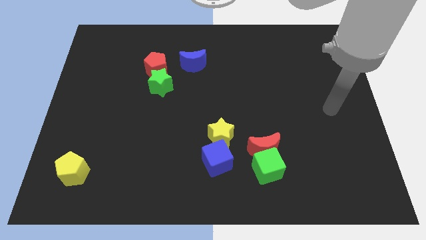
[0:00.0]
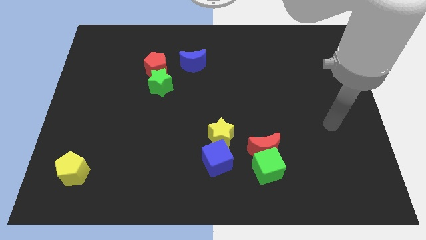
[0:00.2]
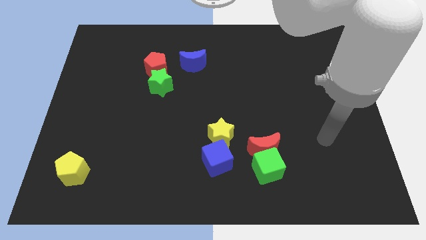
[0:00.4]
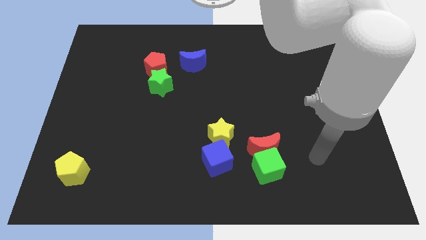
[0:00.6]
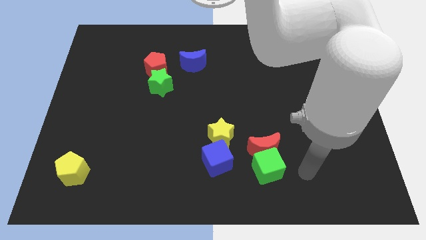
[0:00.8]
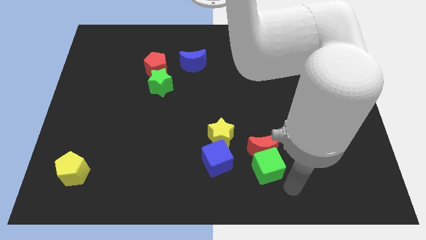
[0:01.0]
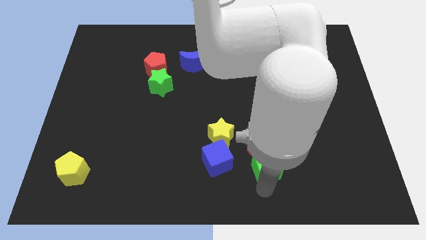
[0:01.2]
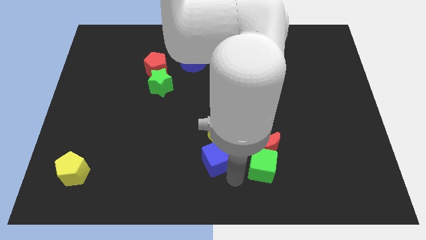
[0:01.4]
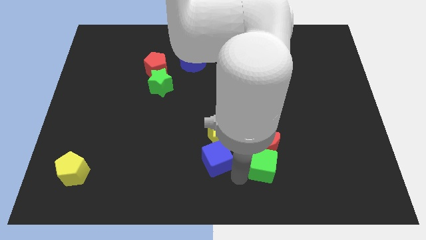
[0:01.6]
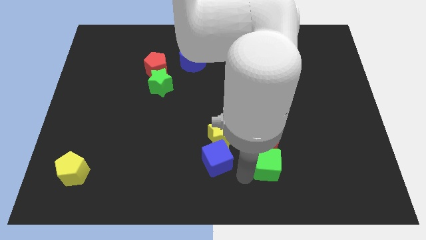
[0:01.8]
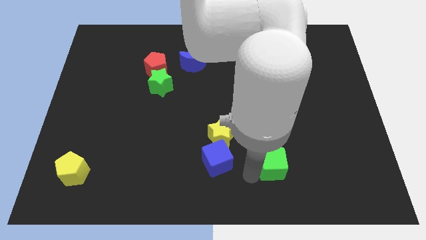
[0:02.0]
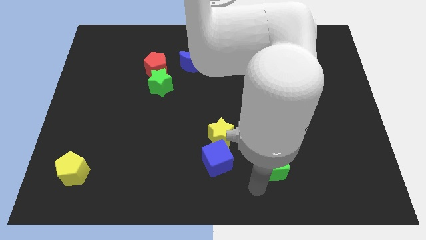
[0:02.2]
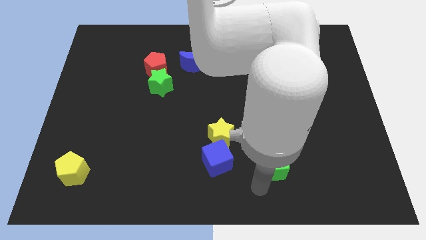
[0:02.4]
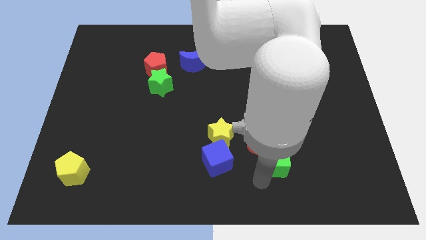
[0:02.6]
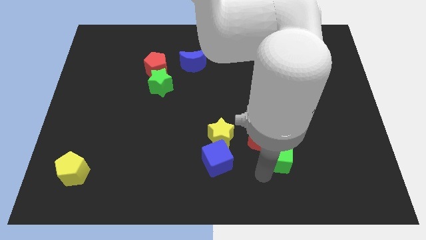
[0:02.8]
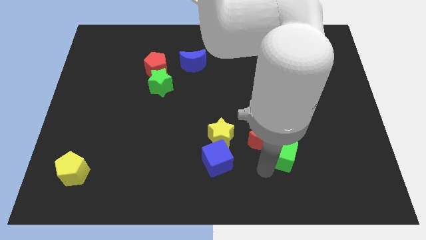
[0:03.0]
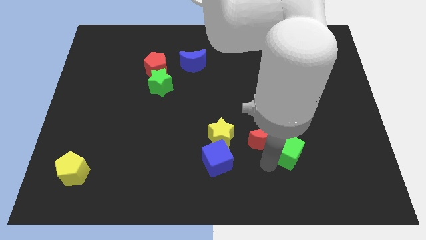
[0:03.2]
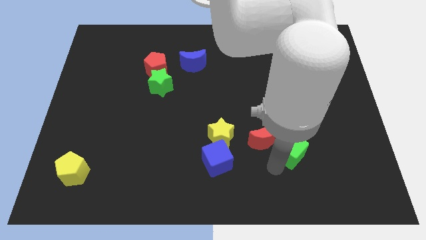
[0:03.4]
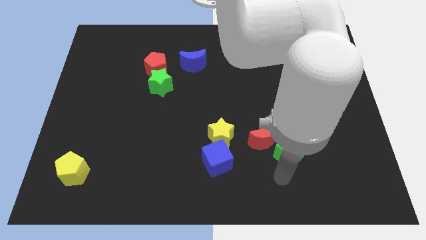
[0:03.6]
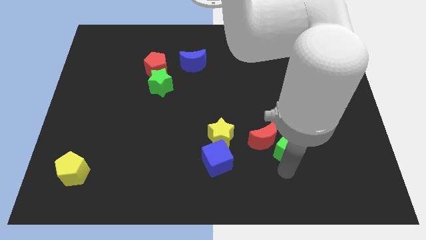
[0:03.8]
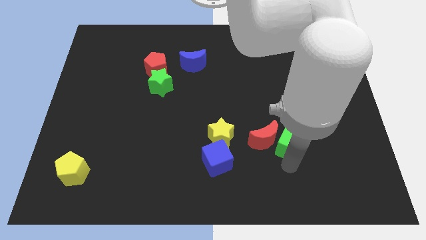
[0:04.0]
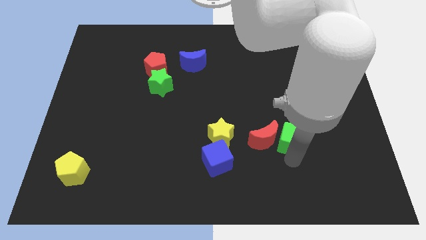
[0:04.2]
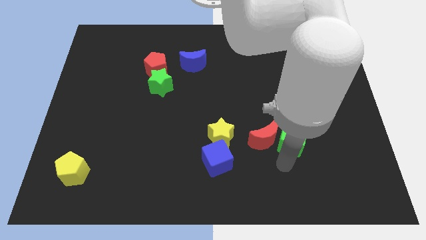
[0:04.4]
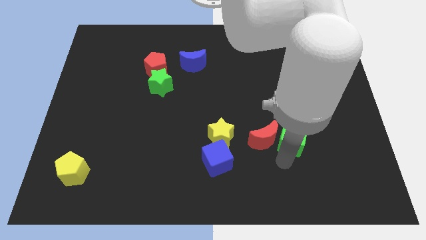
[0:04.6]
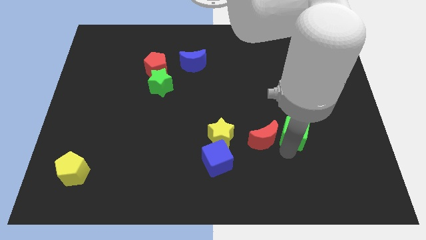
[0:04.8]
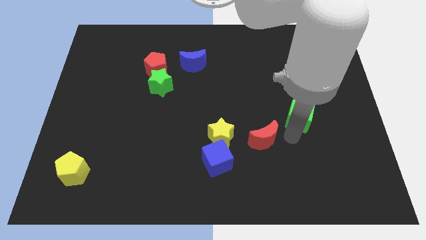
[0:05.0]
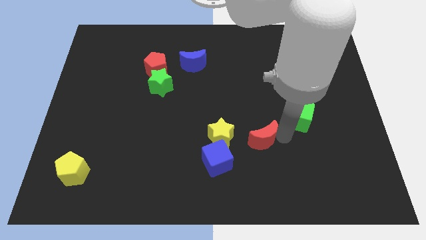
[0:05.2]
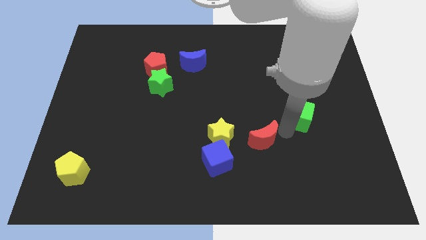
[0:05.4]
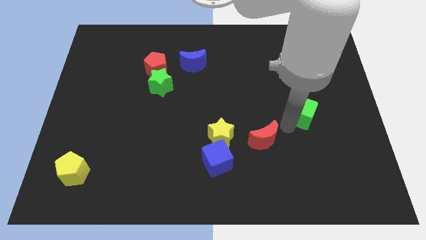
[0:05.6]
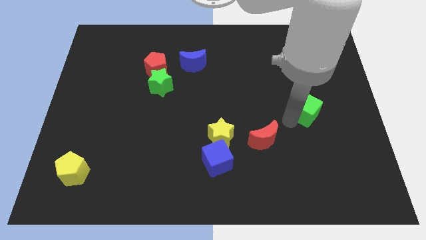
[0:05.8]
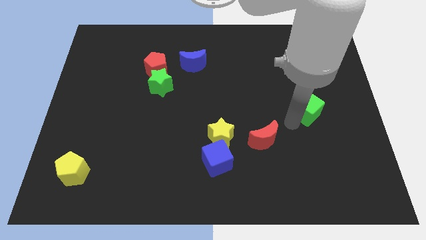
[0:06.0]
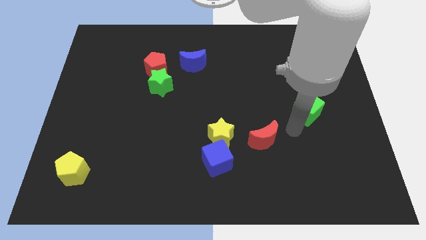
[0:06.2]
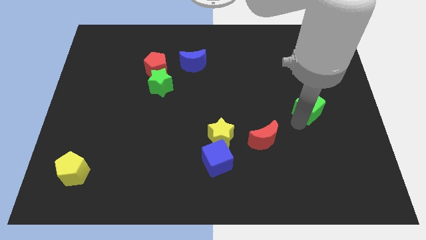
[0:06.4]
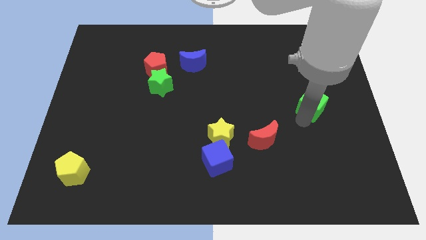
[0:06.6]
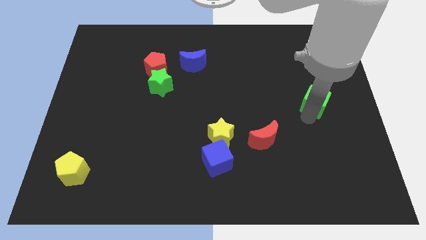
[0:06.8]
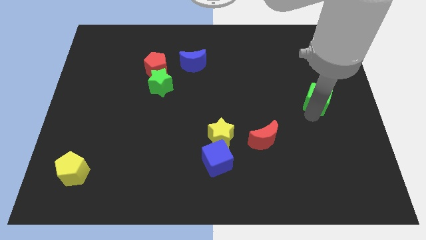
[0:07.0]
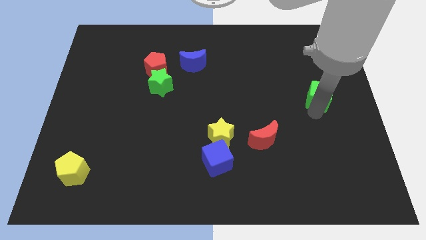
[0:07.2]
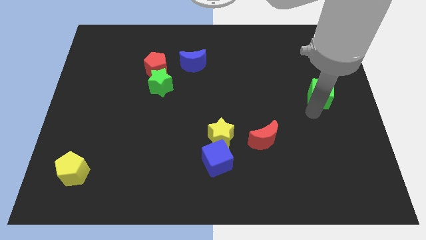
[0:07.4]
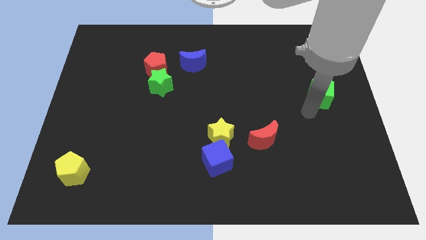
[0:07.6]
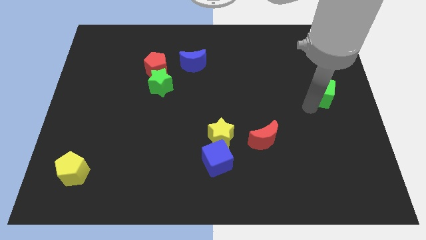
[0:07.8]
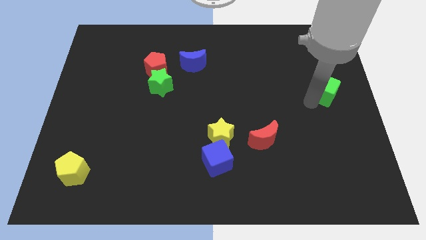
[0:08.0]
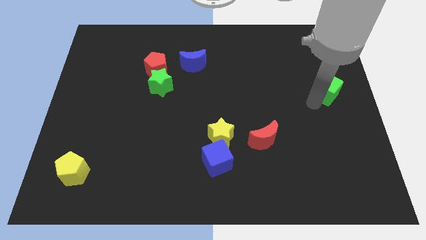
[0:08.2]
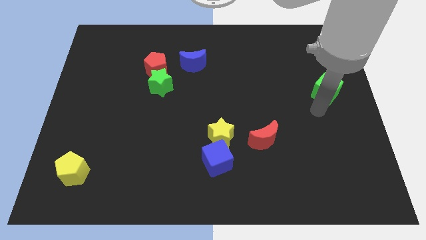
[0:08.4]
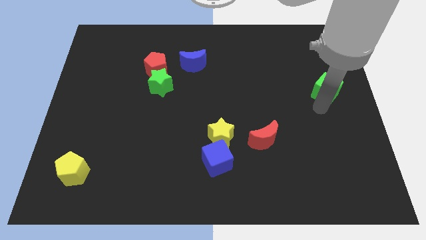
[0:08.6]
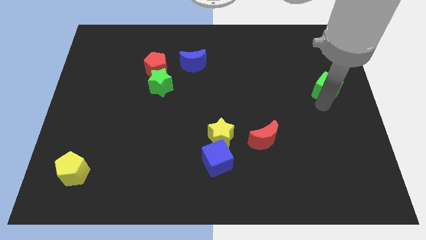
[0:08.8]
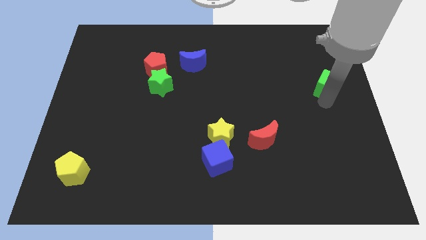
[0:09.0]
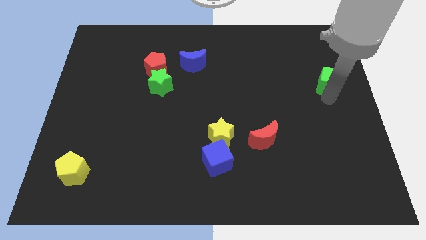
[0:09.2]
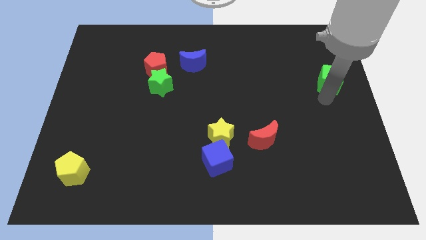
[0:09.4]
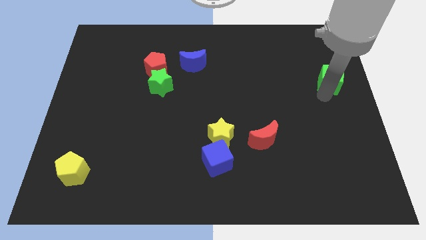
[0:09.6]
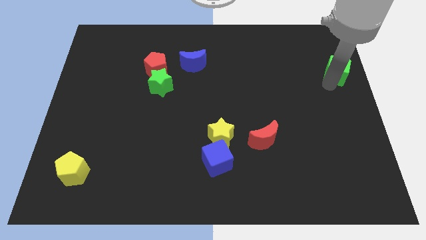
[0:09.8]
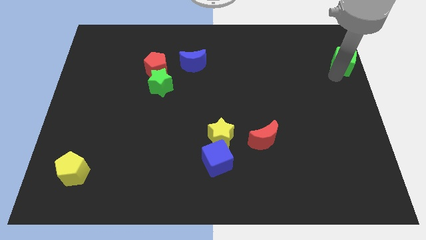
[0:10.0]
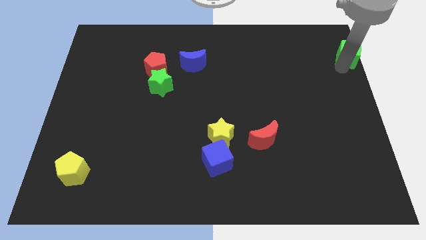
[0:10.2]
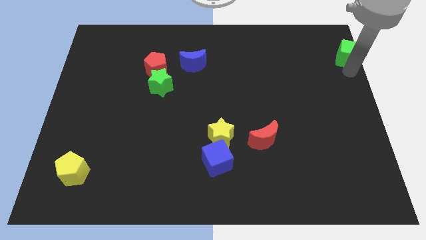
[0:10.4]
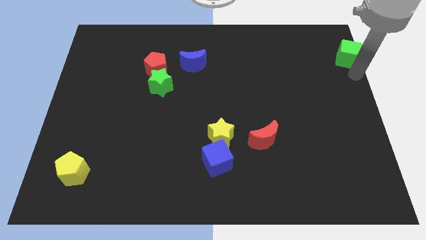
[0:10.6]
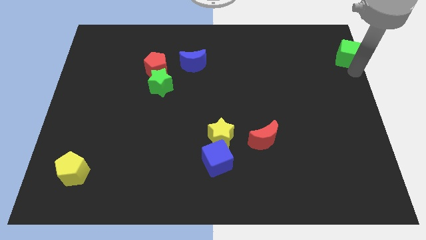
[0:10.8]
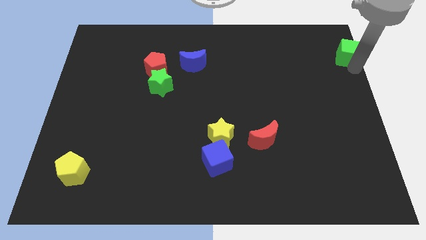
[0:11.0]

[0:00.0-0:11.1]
push the green cube to the top right

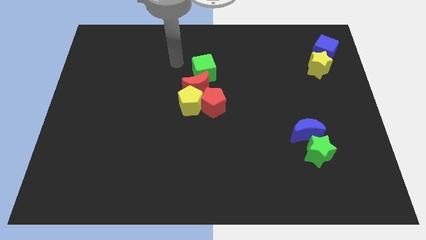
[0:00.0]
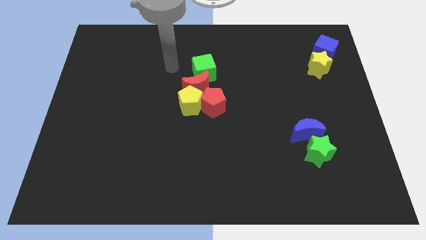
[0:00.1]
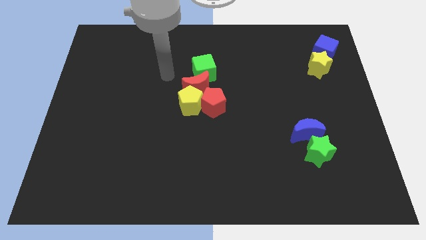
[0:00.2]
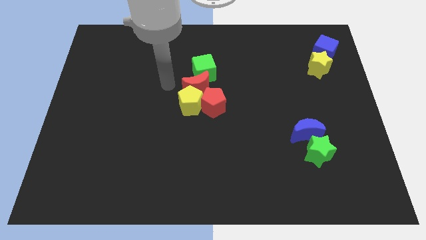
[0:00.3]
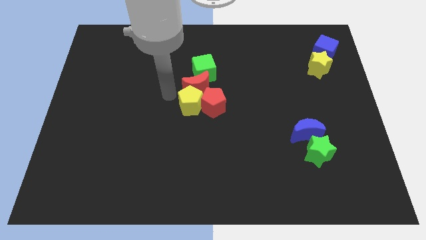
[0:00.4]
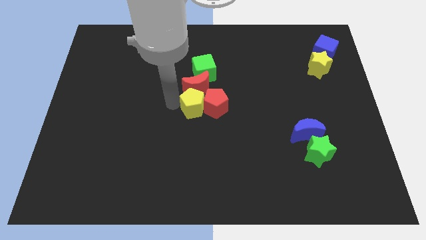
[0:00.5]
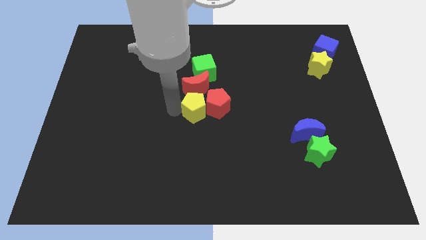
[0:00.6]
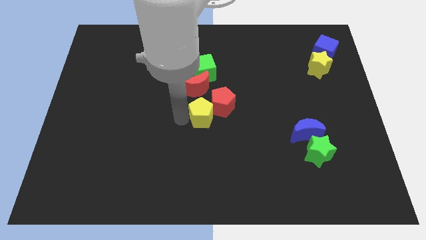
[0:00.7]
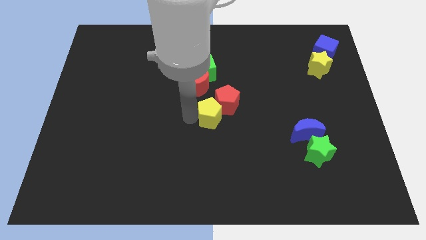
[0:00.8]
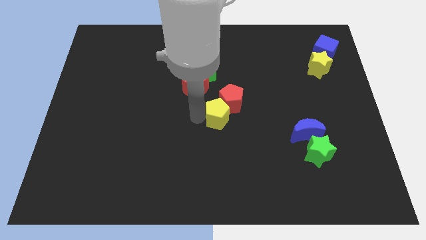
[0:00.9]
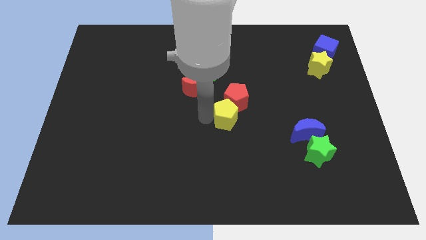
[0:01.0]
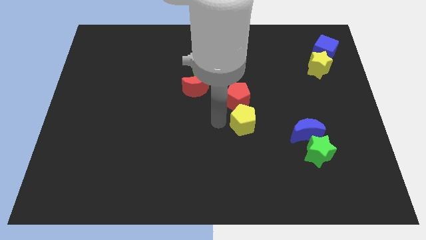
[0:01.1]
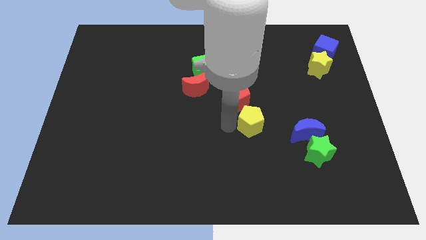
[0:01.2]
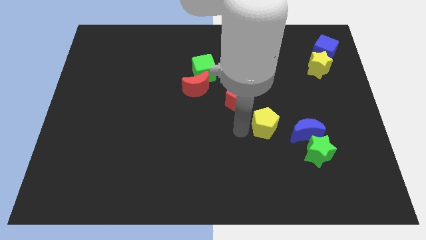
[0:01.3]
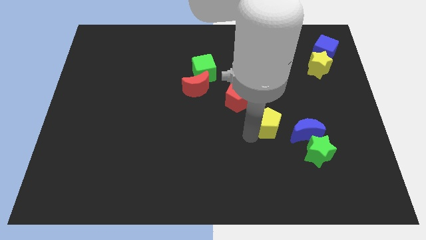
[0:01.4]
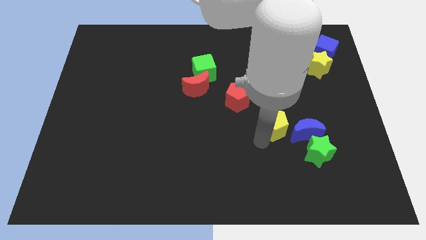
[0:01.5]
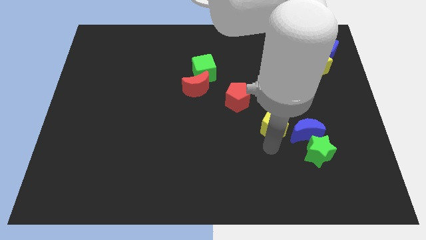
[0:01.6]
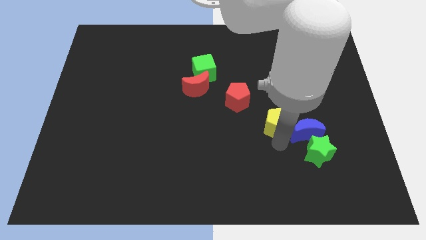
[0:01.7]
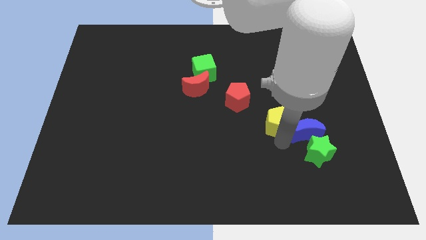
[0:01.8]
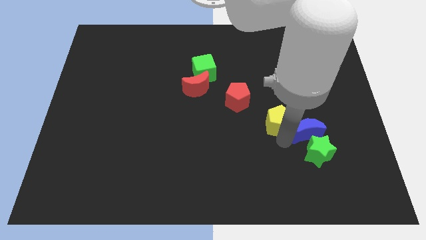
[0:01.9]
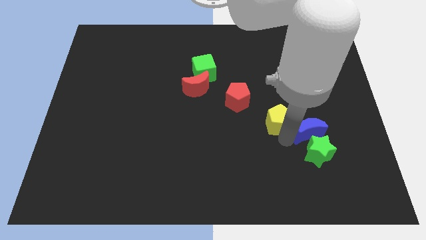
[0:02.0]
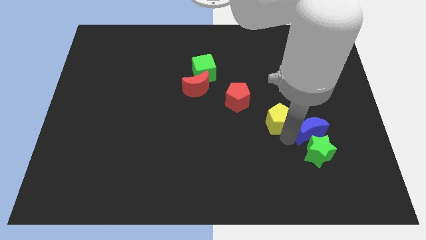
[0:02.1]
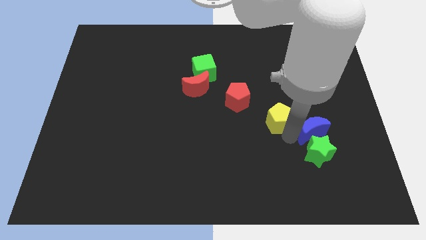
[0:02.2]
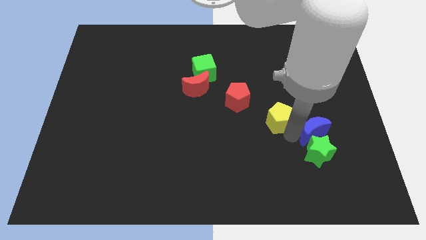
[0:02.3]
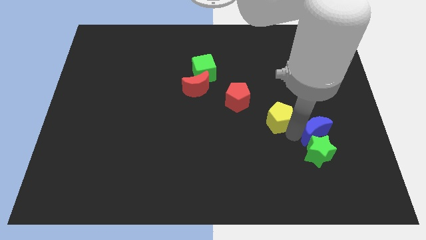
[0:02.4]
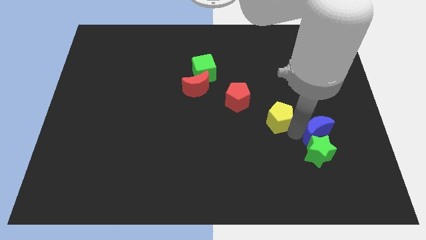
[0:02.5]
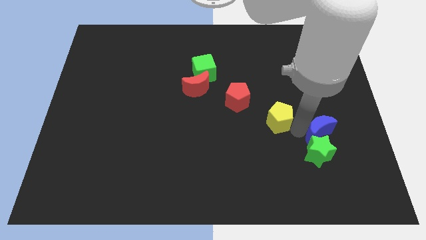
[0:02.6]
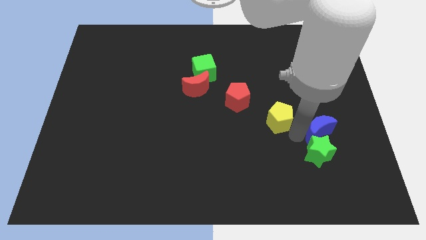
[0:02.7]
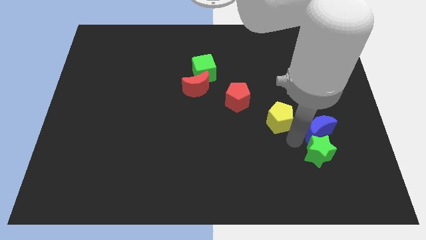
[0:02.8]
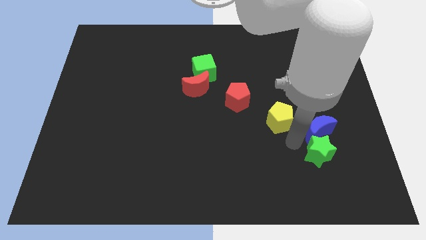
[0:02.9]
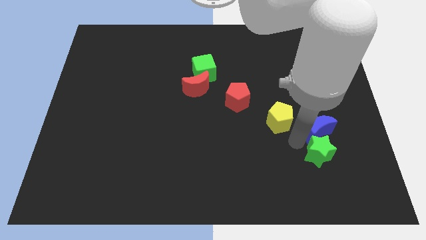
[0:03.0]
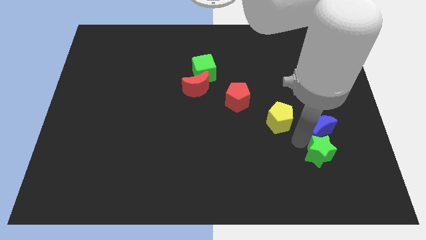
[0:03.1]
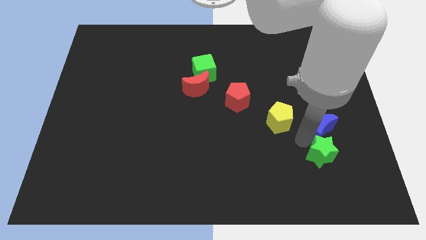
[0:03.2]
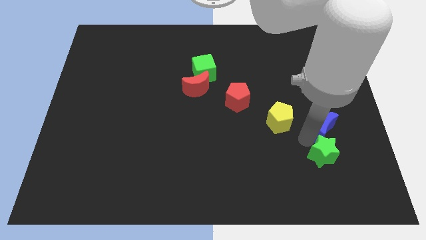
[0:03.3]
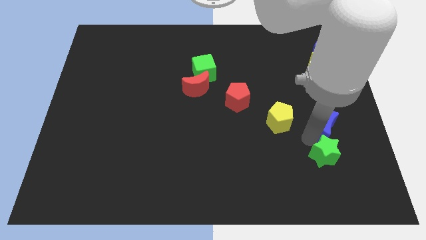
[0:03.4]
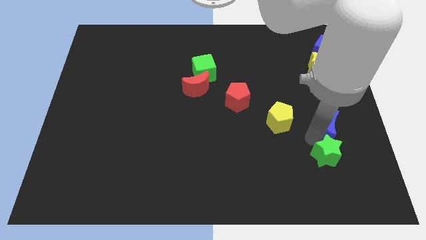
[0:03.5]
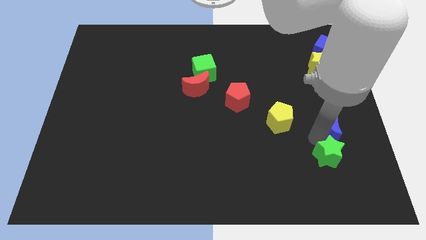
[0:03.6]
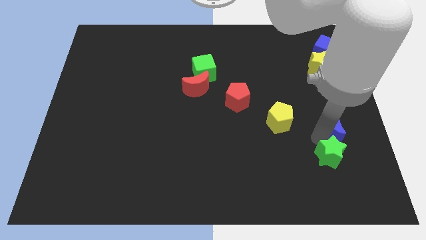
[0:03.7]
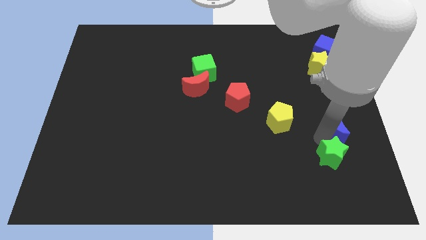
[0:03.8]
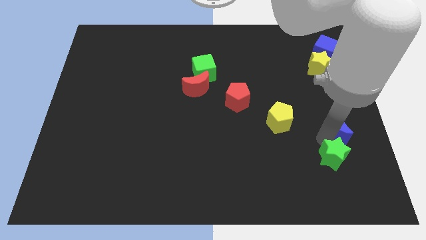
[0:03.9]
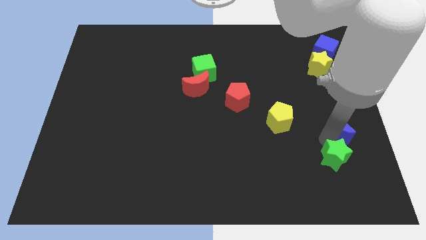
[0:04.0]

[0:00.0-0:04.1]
push the blue moon to the right side of the board
